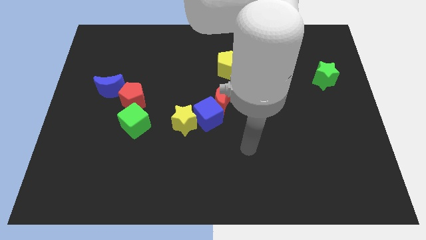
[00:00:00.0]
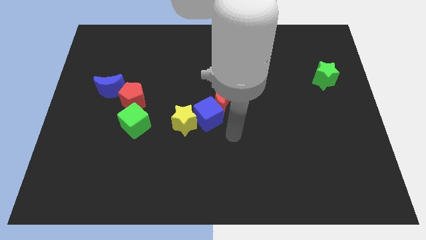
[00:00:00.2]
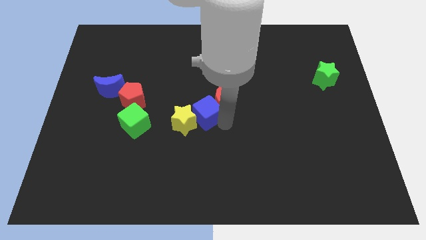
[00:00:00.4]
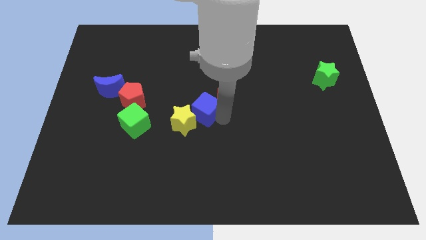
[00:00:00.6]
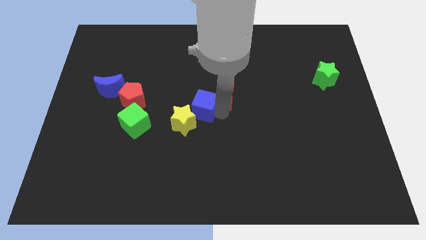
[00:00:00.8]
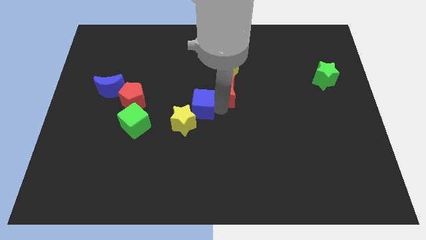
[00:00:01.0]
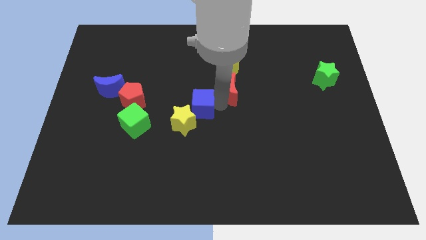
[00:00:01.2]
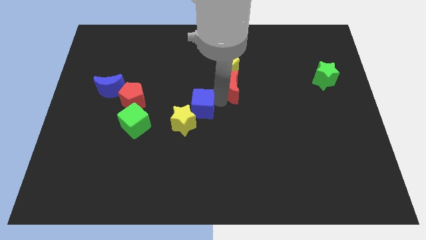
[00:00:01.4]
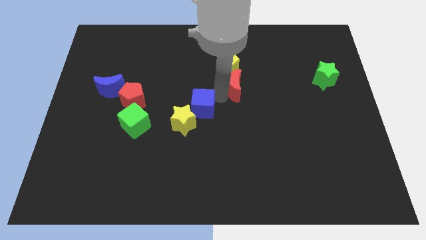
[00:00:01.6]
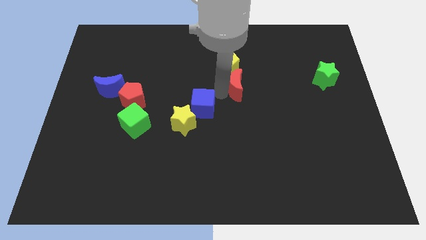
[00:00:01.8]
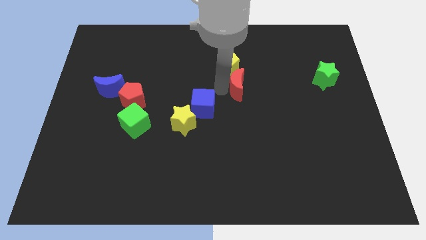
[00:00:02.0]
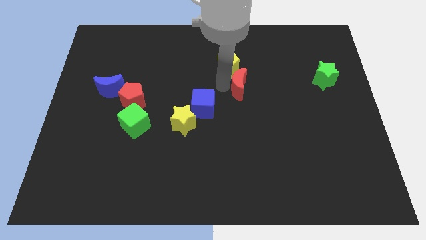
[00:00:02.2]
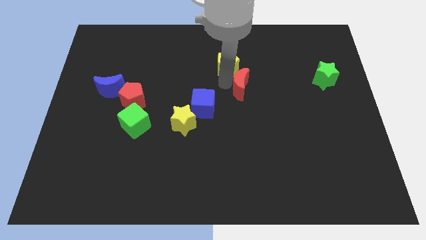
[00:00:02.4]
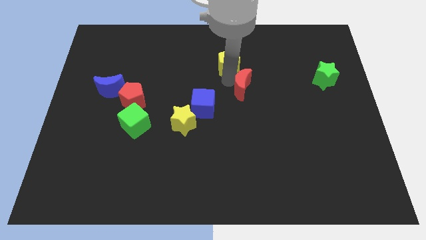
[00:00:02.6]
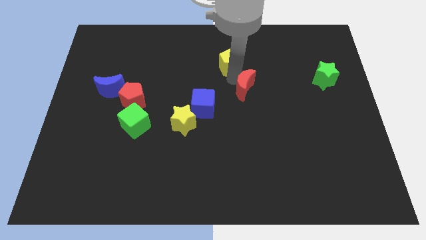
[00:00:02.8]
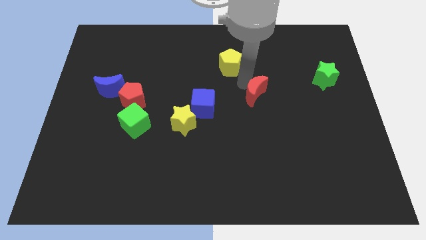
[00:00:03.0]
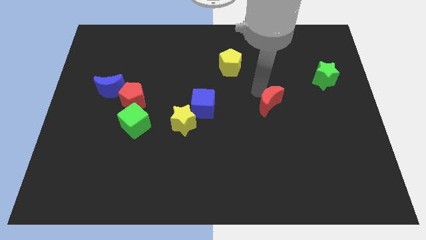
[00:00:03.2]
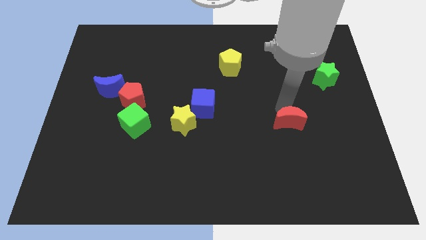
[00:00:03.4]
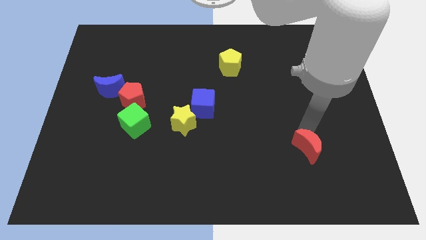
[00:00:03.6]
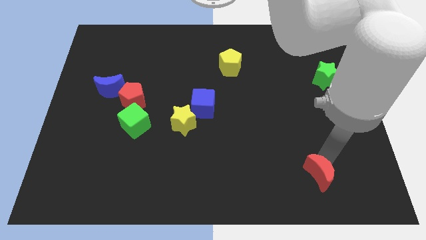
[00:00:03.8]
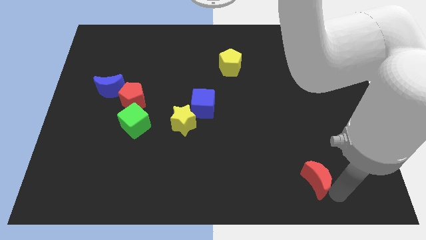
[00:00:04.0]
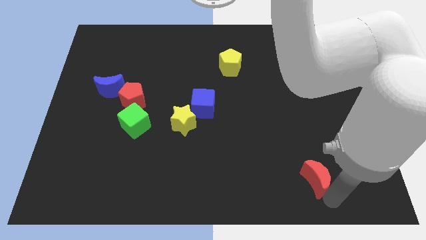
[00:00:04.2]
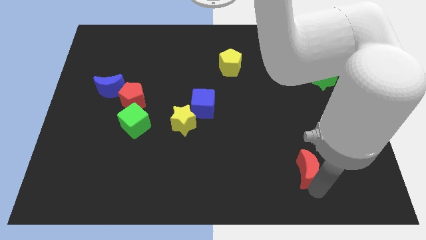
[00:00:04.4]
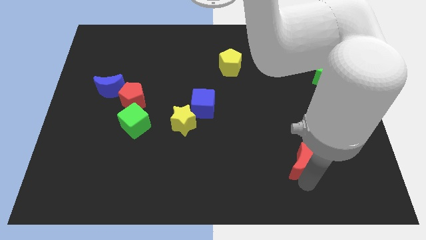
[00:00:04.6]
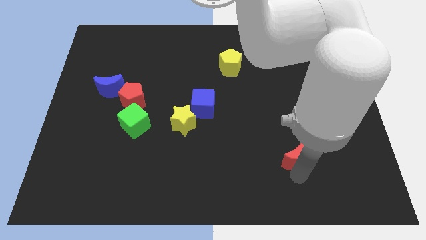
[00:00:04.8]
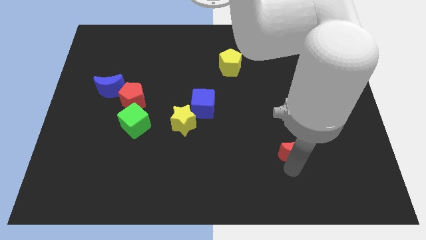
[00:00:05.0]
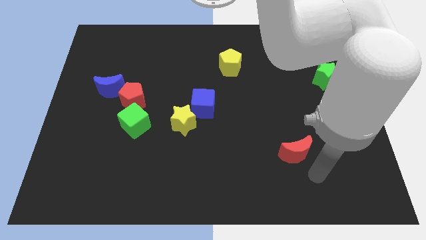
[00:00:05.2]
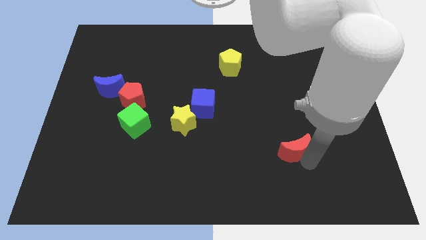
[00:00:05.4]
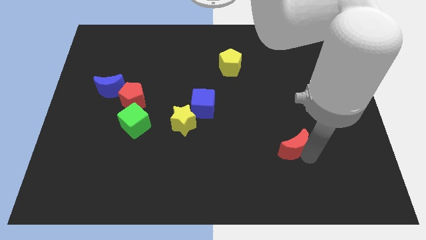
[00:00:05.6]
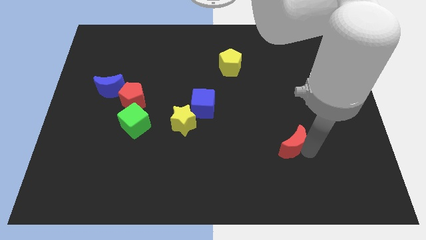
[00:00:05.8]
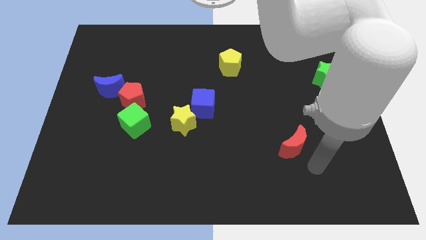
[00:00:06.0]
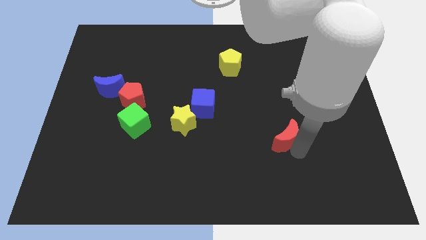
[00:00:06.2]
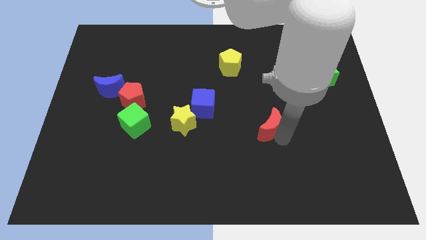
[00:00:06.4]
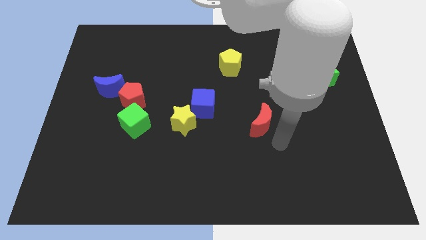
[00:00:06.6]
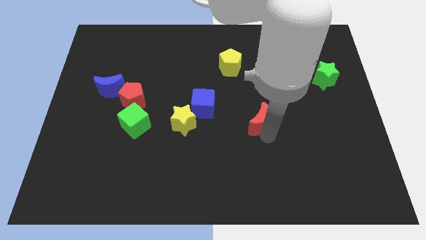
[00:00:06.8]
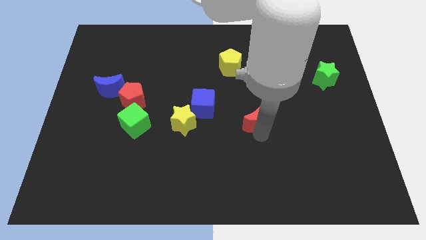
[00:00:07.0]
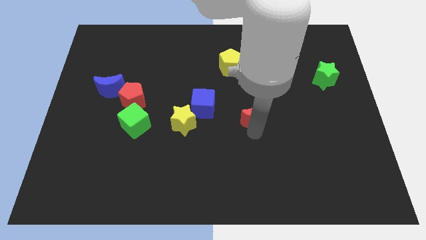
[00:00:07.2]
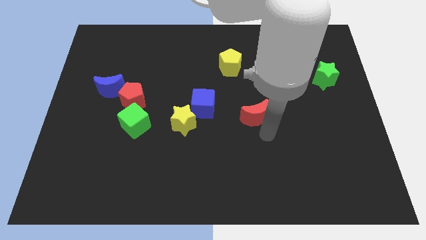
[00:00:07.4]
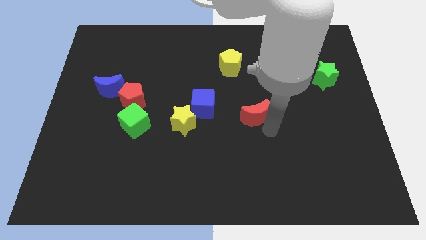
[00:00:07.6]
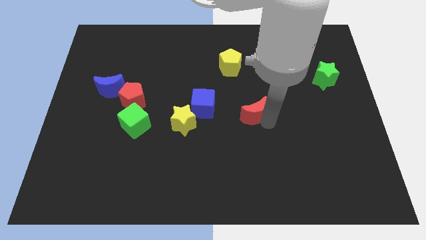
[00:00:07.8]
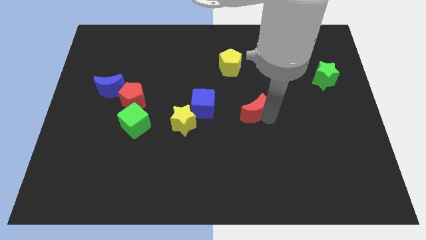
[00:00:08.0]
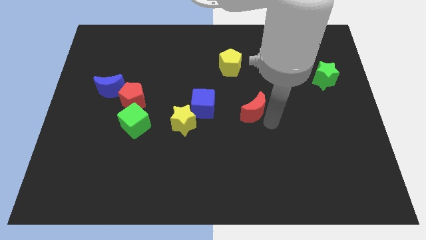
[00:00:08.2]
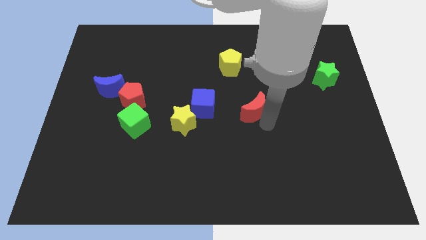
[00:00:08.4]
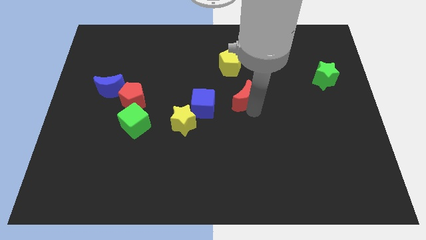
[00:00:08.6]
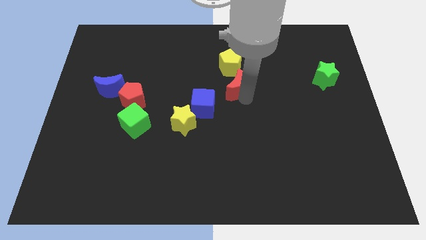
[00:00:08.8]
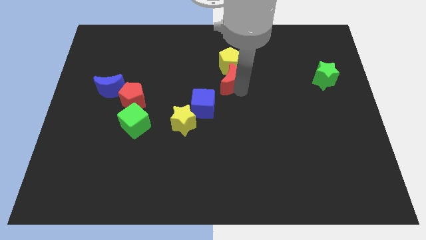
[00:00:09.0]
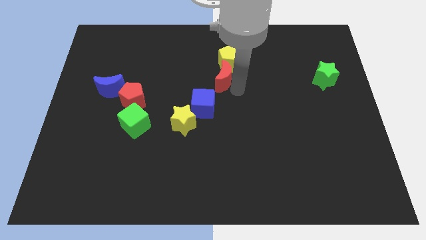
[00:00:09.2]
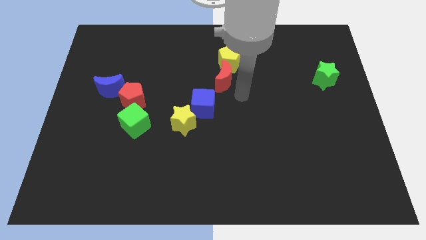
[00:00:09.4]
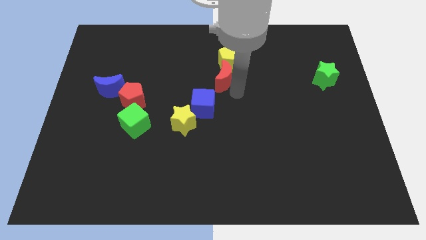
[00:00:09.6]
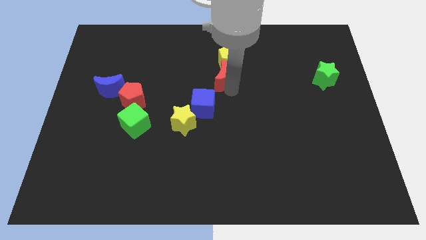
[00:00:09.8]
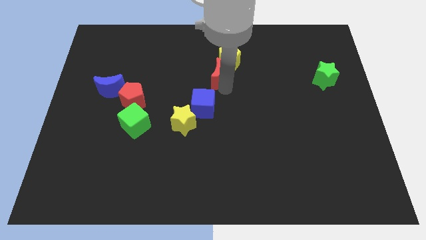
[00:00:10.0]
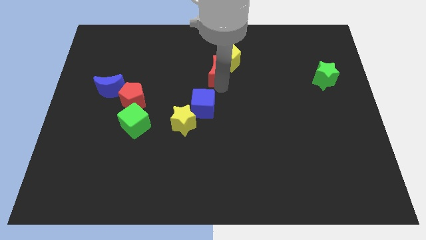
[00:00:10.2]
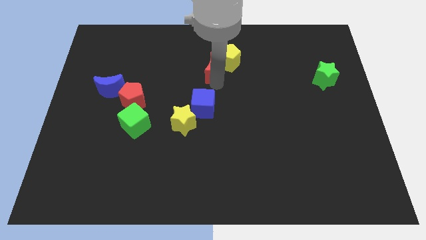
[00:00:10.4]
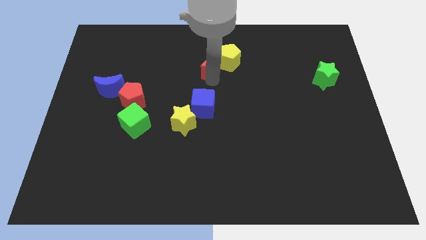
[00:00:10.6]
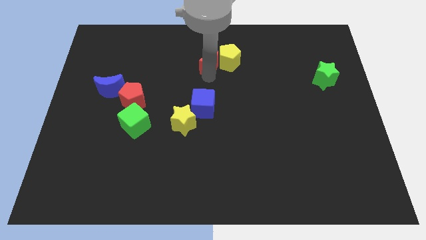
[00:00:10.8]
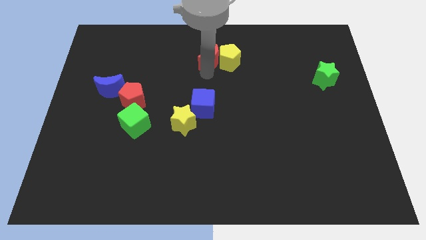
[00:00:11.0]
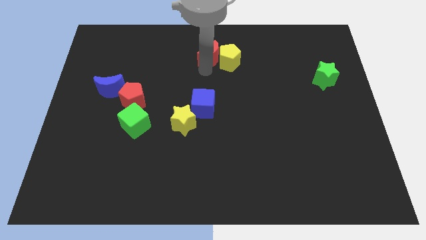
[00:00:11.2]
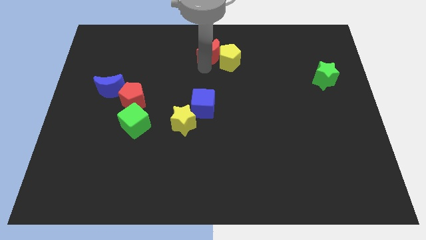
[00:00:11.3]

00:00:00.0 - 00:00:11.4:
move the red moon to the towards your base
